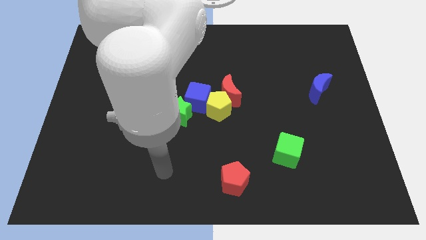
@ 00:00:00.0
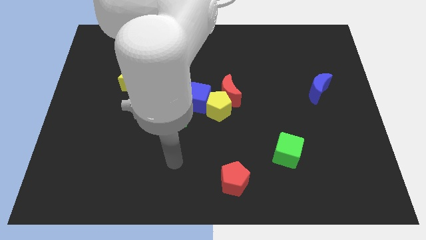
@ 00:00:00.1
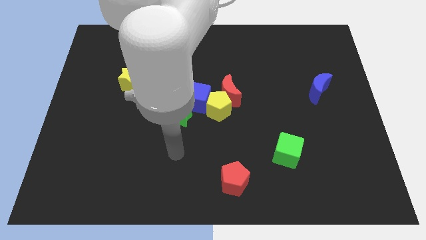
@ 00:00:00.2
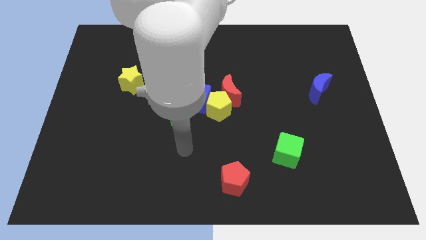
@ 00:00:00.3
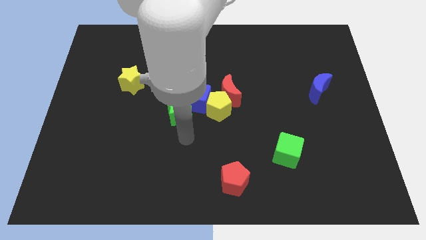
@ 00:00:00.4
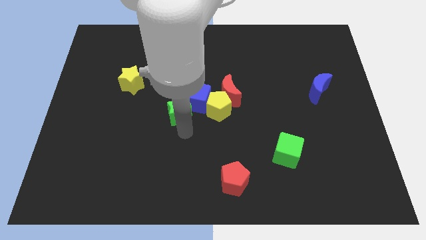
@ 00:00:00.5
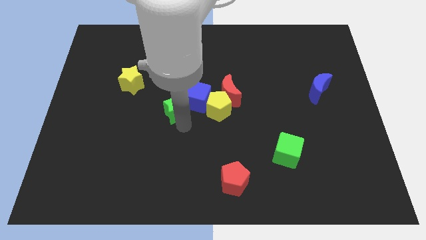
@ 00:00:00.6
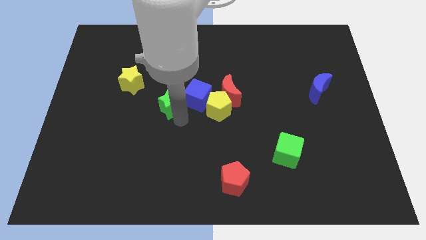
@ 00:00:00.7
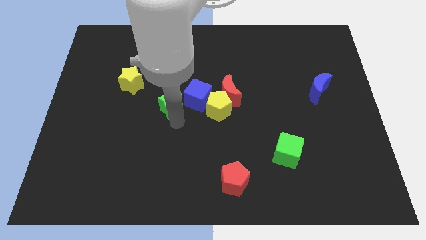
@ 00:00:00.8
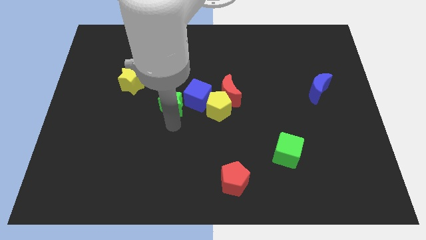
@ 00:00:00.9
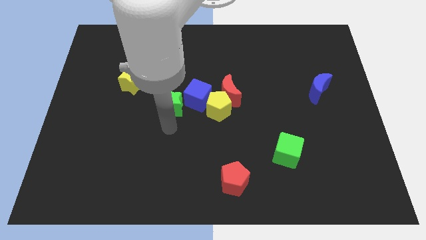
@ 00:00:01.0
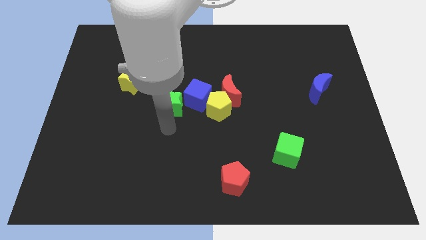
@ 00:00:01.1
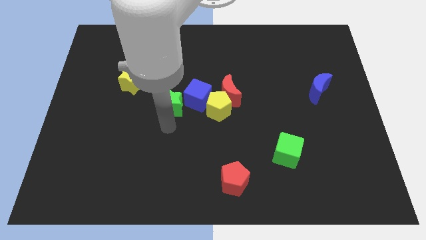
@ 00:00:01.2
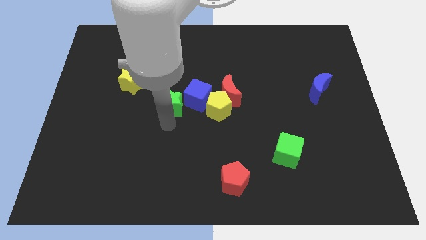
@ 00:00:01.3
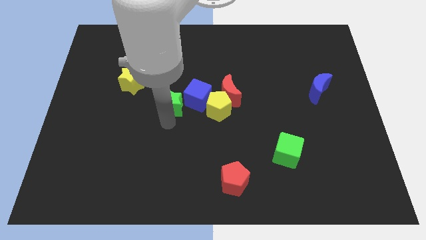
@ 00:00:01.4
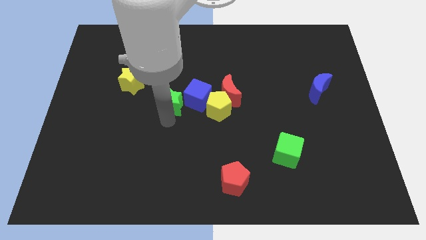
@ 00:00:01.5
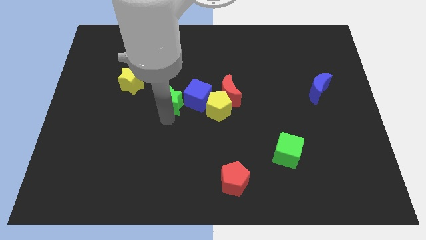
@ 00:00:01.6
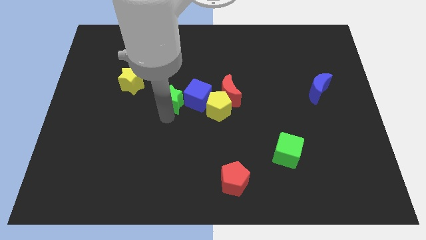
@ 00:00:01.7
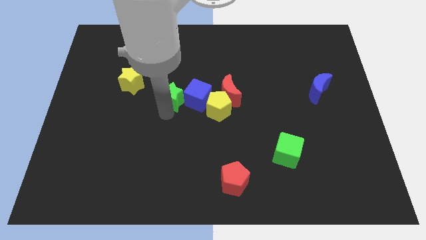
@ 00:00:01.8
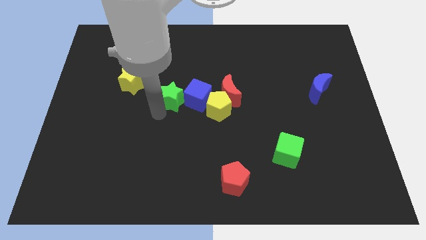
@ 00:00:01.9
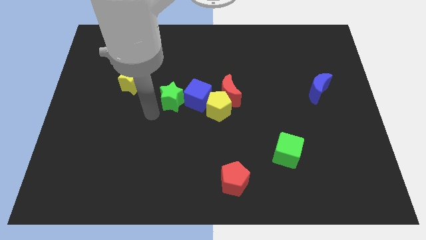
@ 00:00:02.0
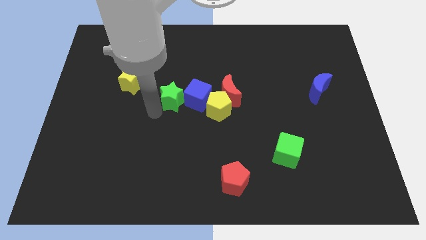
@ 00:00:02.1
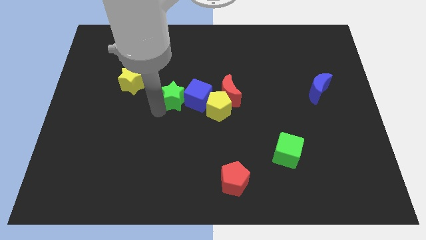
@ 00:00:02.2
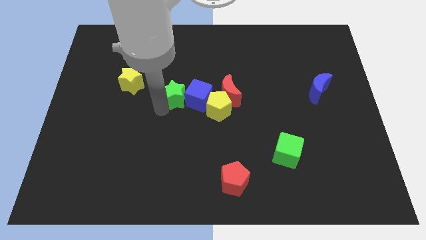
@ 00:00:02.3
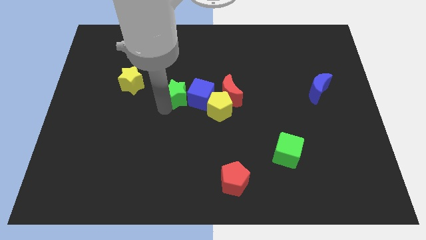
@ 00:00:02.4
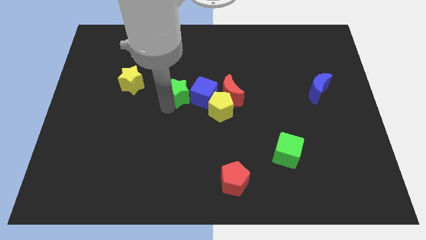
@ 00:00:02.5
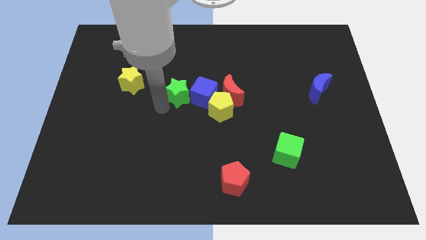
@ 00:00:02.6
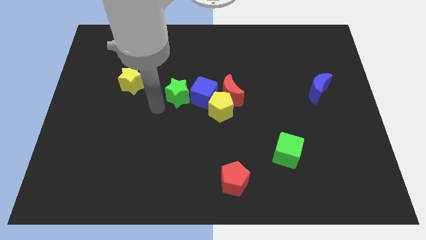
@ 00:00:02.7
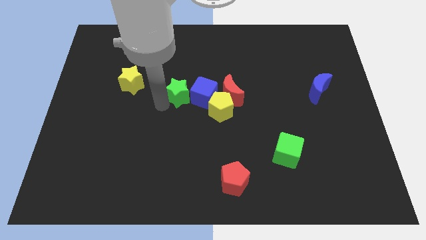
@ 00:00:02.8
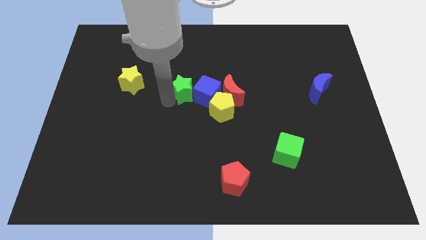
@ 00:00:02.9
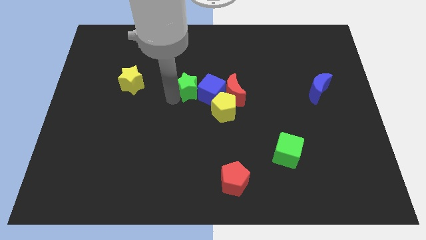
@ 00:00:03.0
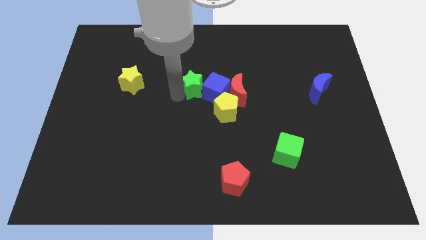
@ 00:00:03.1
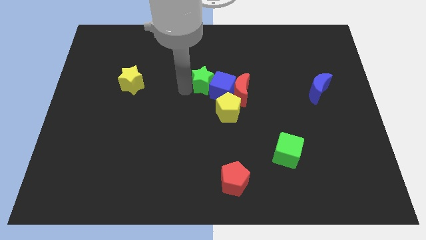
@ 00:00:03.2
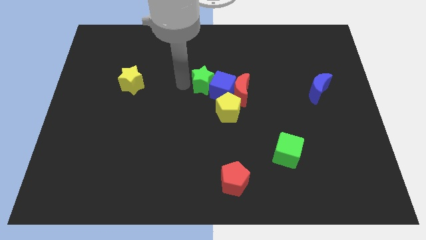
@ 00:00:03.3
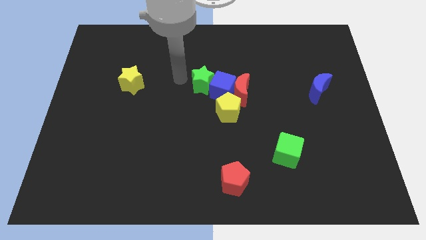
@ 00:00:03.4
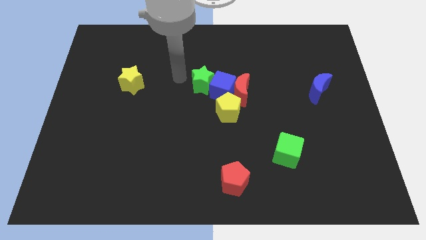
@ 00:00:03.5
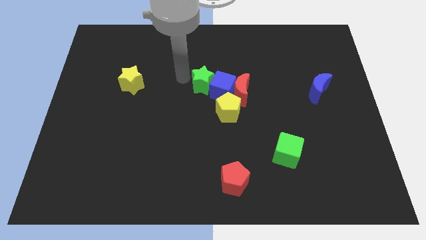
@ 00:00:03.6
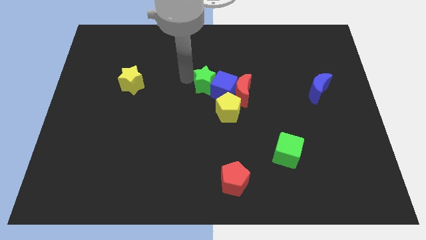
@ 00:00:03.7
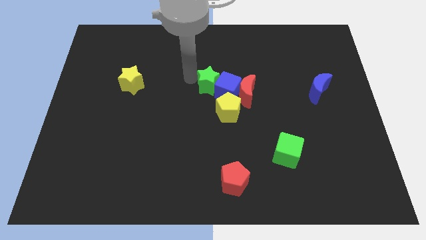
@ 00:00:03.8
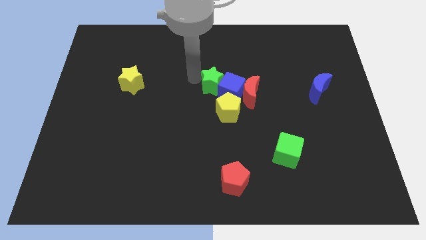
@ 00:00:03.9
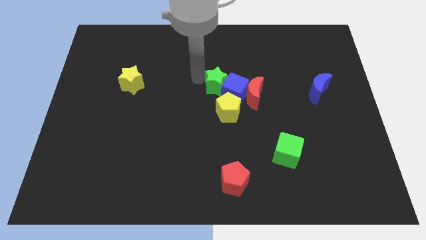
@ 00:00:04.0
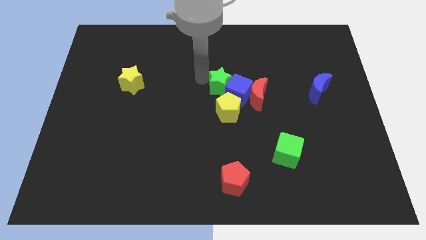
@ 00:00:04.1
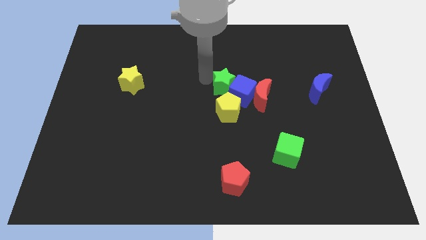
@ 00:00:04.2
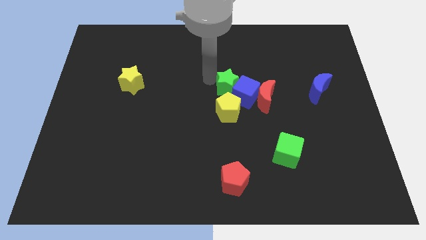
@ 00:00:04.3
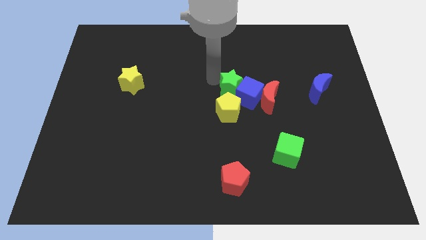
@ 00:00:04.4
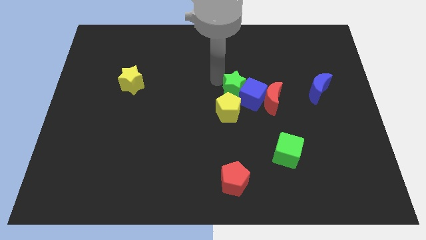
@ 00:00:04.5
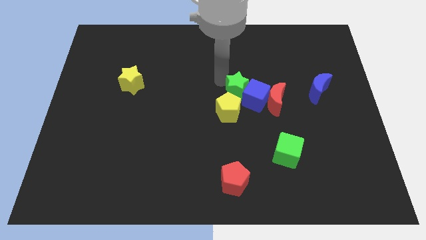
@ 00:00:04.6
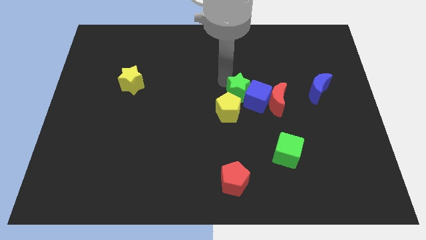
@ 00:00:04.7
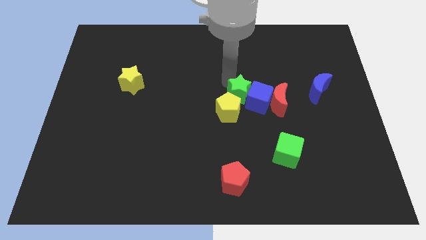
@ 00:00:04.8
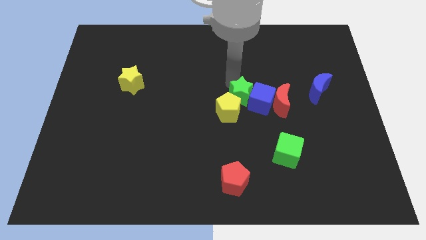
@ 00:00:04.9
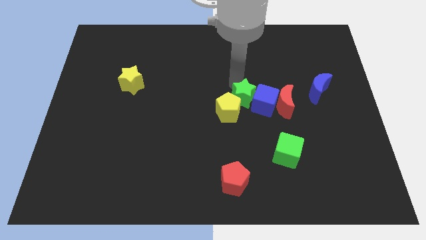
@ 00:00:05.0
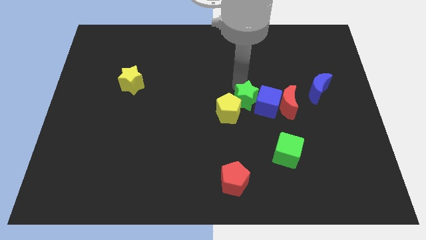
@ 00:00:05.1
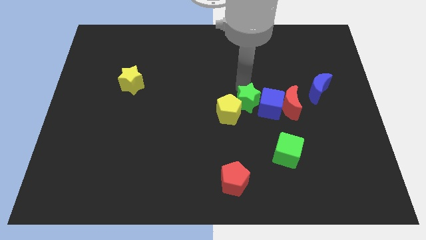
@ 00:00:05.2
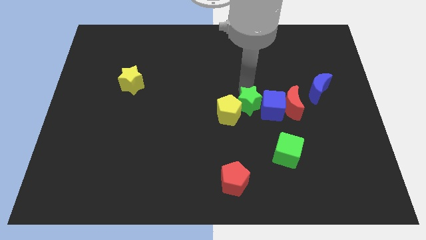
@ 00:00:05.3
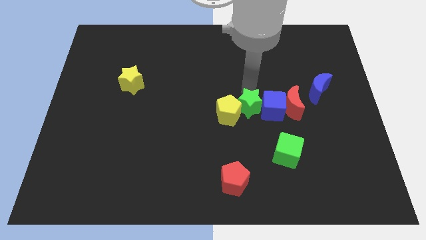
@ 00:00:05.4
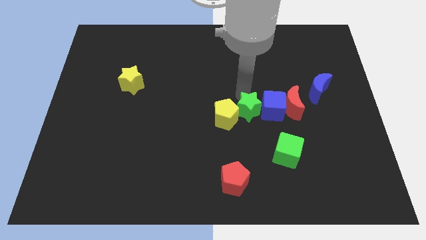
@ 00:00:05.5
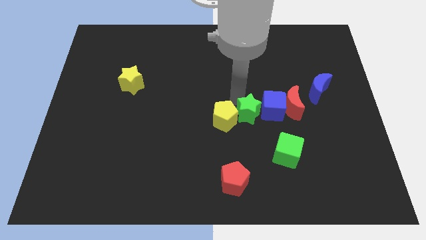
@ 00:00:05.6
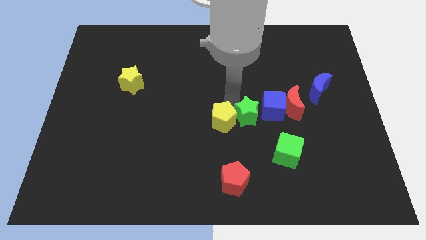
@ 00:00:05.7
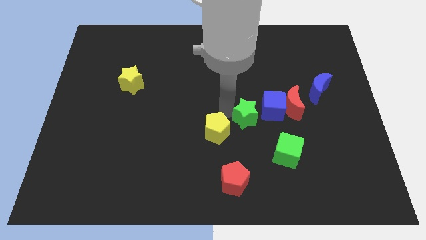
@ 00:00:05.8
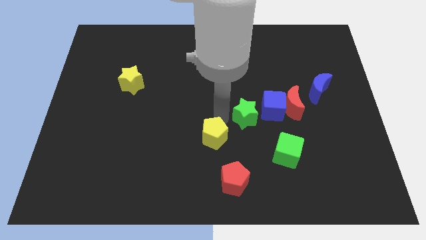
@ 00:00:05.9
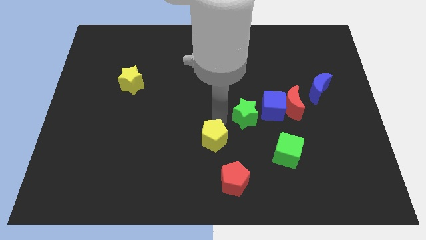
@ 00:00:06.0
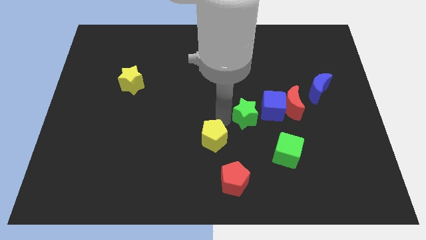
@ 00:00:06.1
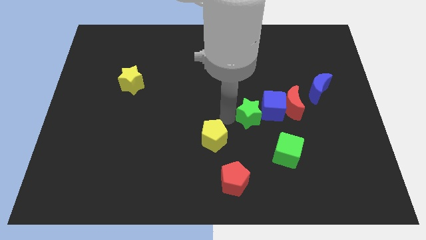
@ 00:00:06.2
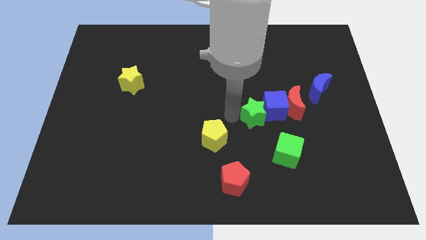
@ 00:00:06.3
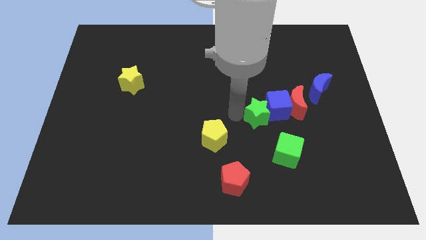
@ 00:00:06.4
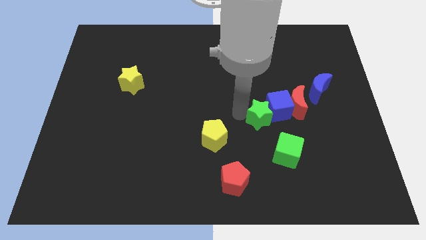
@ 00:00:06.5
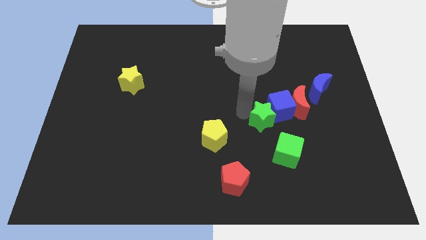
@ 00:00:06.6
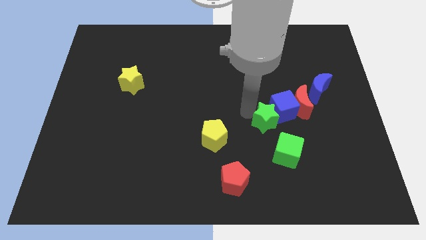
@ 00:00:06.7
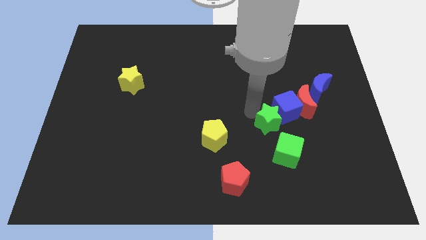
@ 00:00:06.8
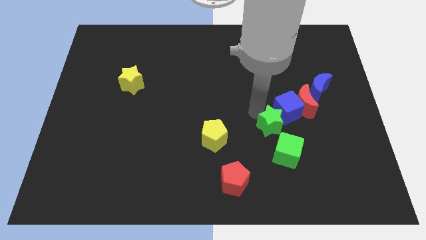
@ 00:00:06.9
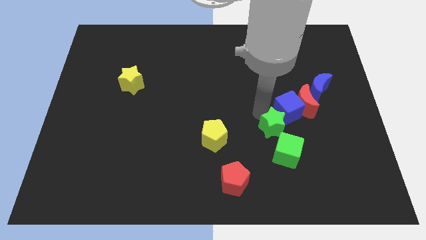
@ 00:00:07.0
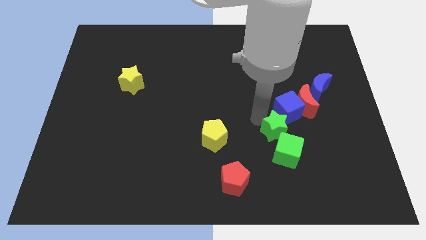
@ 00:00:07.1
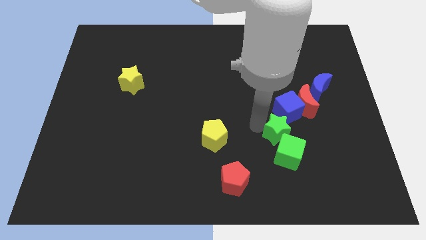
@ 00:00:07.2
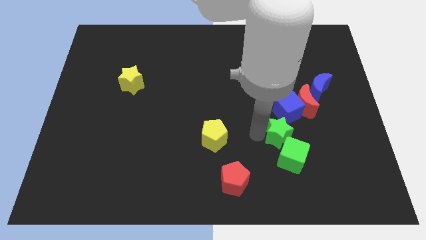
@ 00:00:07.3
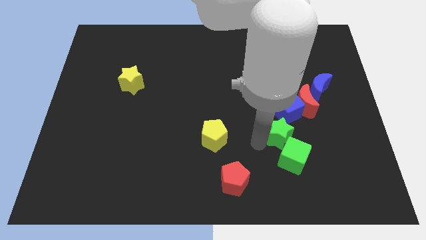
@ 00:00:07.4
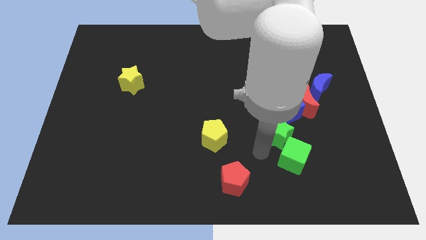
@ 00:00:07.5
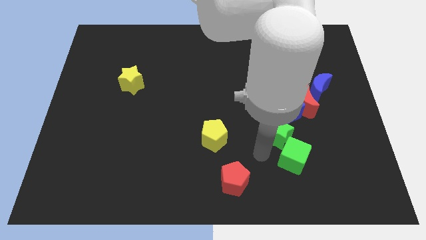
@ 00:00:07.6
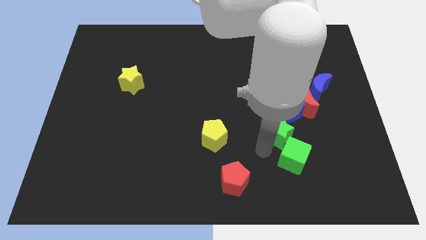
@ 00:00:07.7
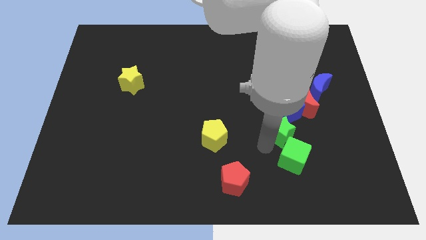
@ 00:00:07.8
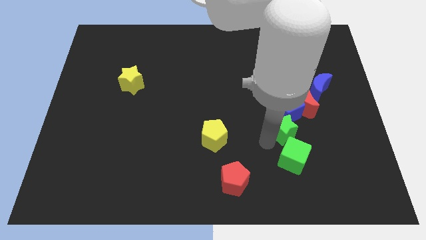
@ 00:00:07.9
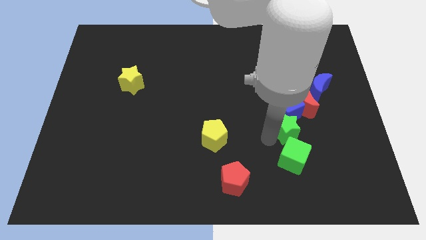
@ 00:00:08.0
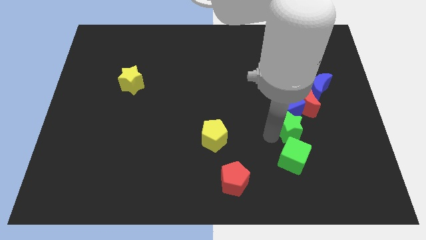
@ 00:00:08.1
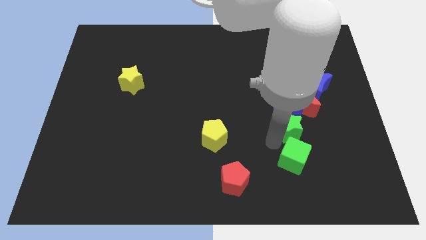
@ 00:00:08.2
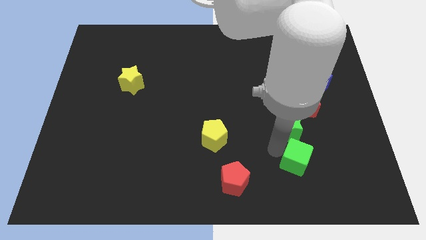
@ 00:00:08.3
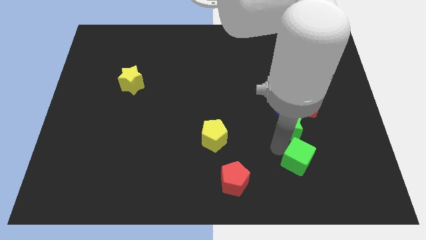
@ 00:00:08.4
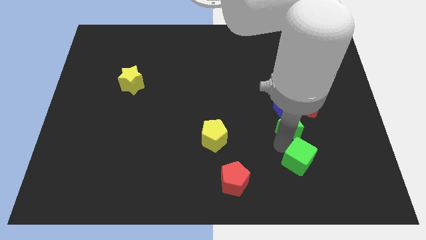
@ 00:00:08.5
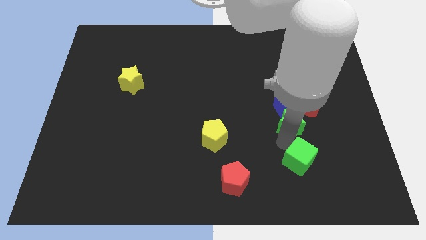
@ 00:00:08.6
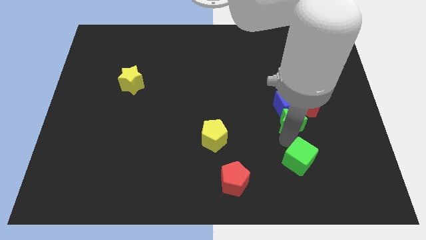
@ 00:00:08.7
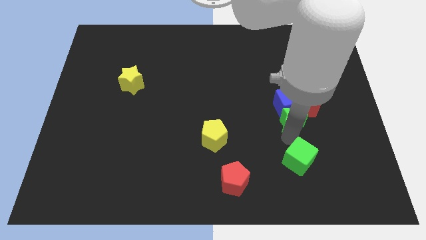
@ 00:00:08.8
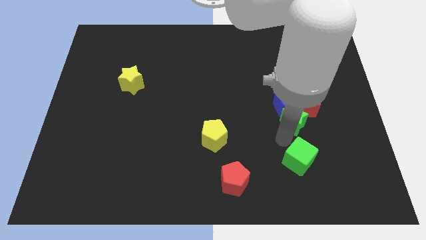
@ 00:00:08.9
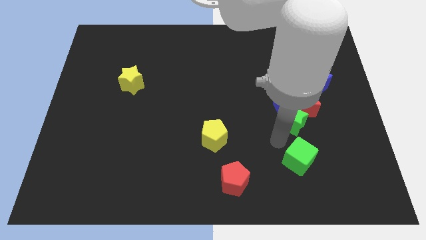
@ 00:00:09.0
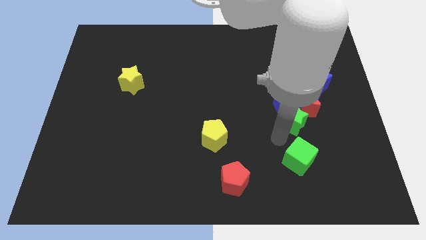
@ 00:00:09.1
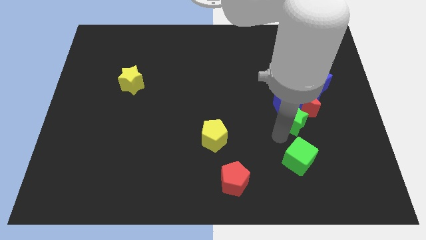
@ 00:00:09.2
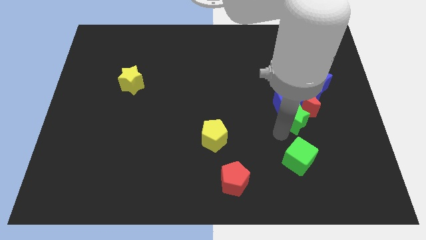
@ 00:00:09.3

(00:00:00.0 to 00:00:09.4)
slide the green star close to the red moon
